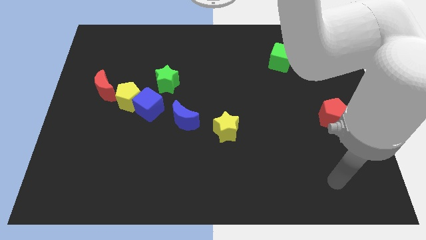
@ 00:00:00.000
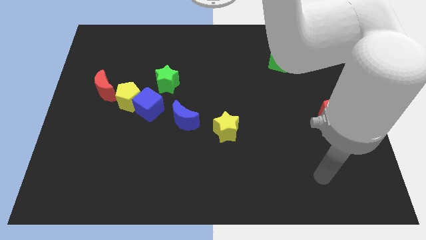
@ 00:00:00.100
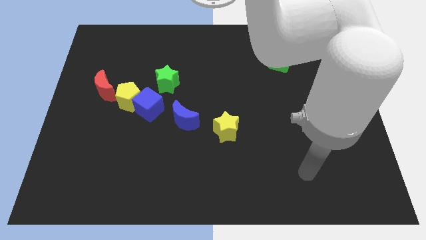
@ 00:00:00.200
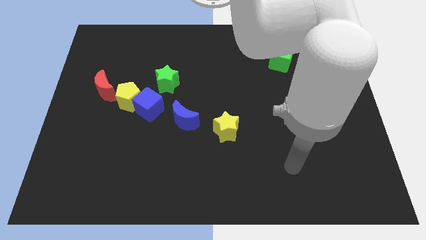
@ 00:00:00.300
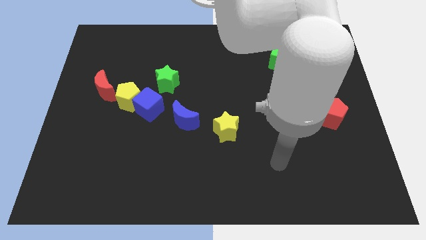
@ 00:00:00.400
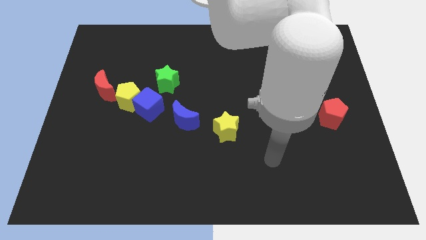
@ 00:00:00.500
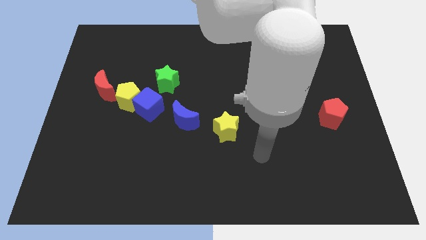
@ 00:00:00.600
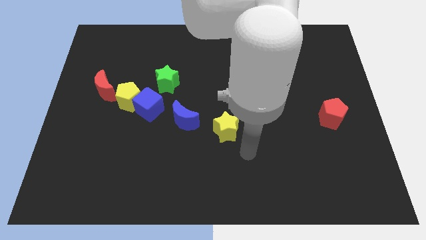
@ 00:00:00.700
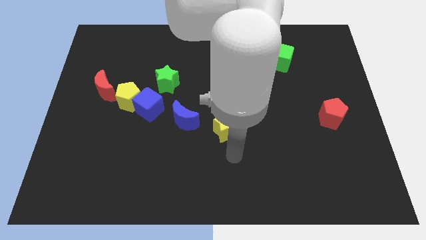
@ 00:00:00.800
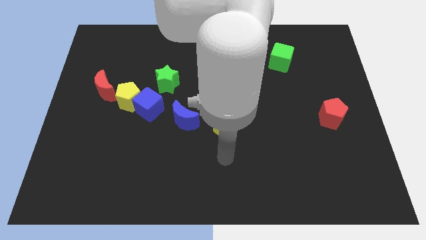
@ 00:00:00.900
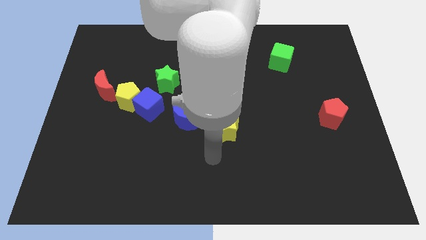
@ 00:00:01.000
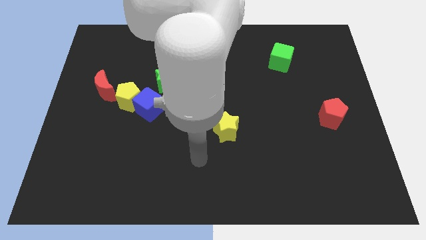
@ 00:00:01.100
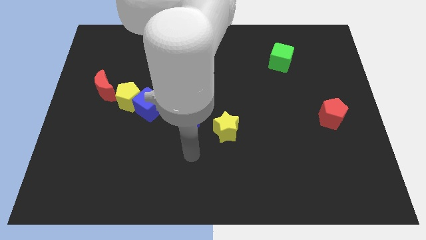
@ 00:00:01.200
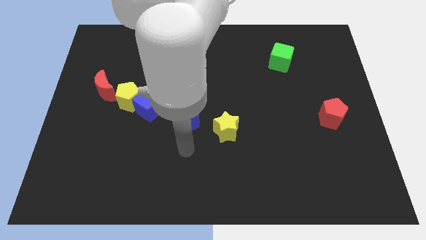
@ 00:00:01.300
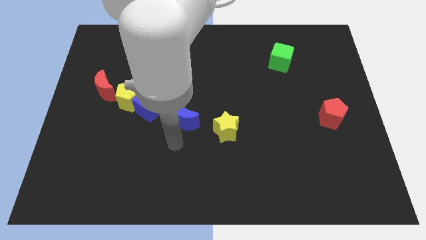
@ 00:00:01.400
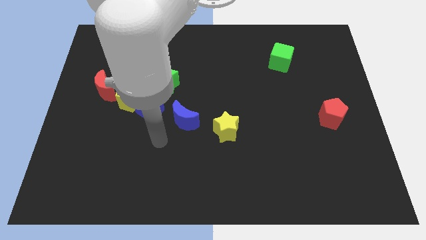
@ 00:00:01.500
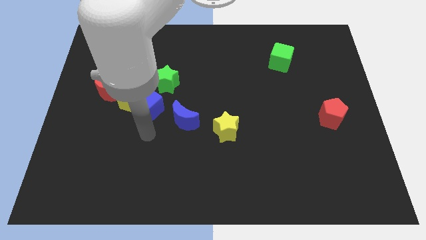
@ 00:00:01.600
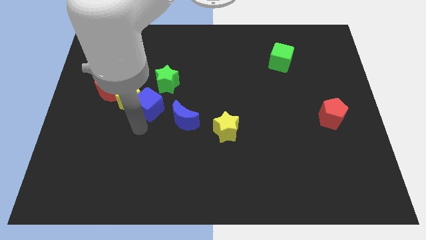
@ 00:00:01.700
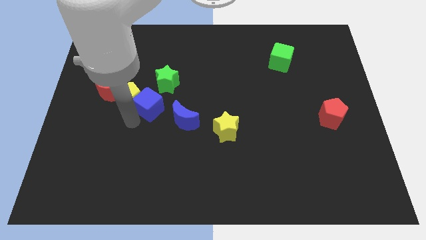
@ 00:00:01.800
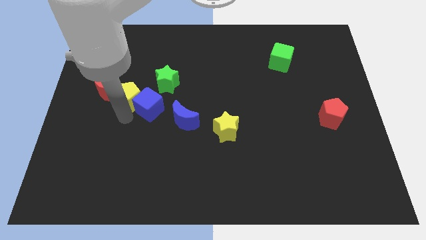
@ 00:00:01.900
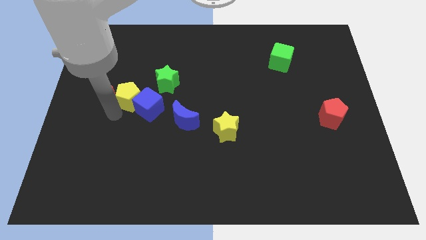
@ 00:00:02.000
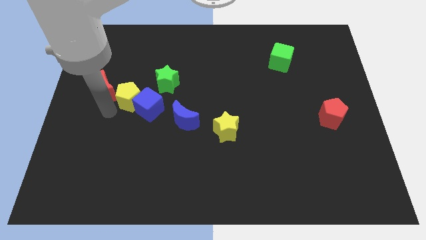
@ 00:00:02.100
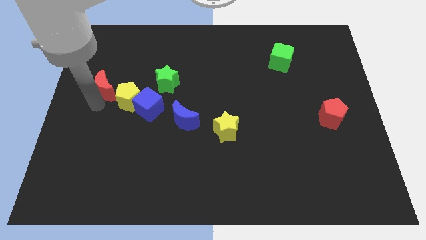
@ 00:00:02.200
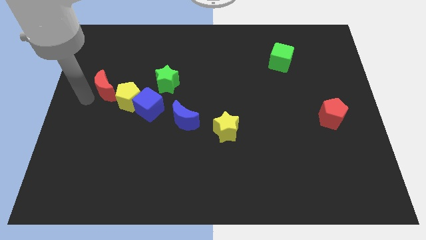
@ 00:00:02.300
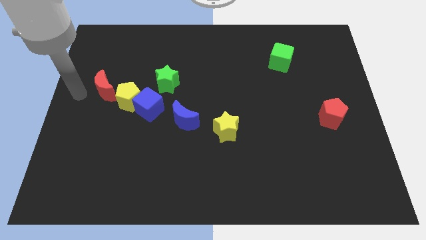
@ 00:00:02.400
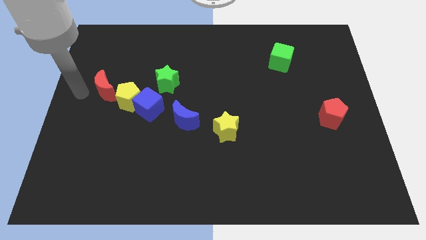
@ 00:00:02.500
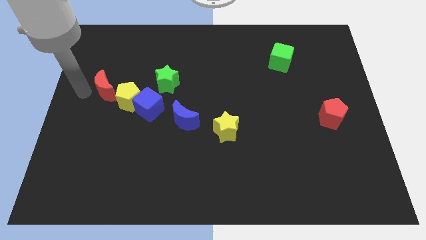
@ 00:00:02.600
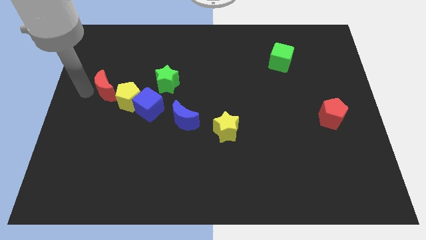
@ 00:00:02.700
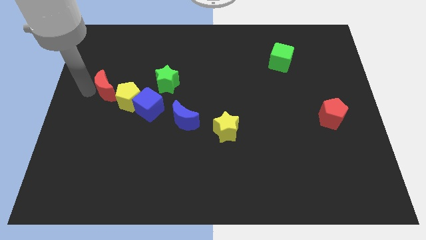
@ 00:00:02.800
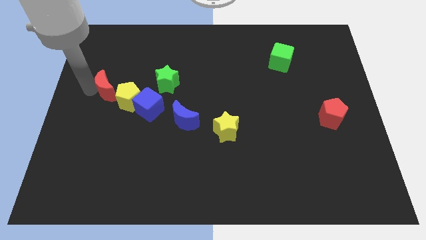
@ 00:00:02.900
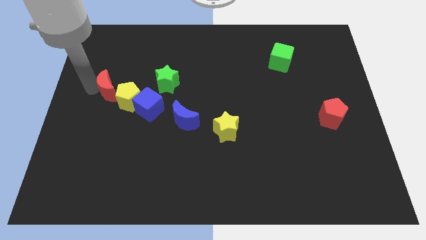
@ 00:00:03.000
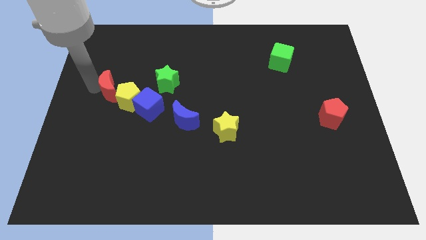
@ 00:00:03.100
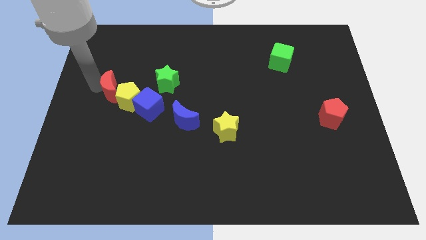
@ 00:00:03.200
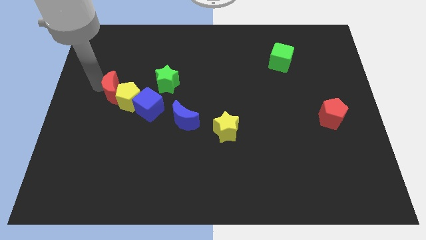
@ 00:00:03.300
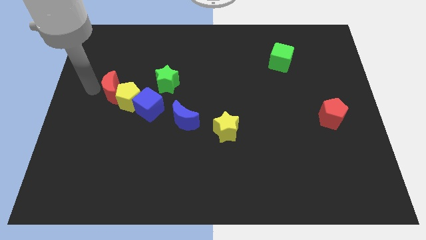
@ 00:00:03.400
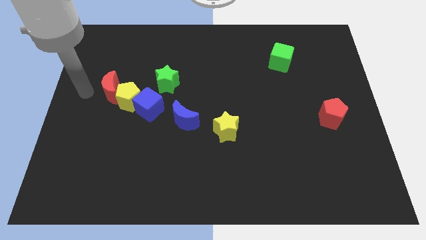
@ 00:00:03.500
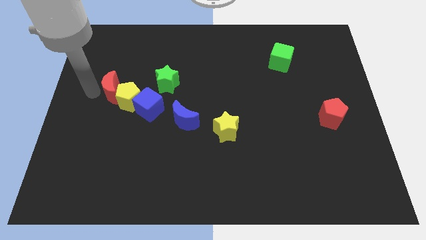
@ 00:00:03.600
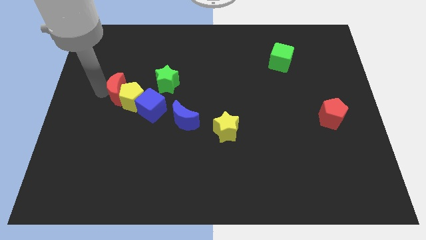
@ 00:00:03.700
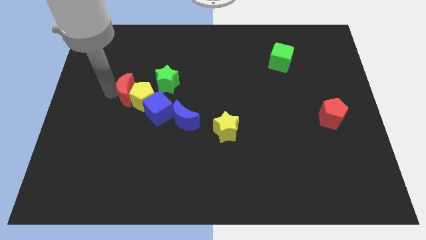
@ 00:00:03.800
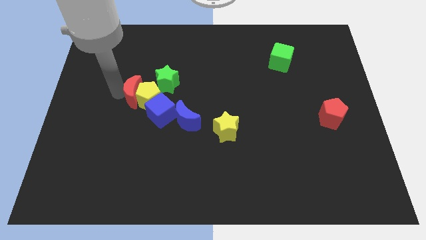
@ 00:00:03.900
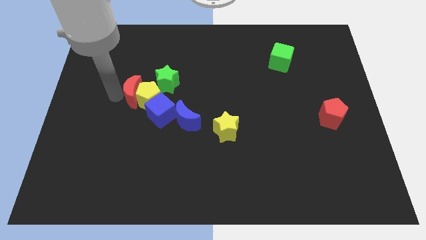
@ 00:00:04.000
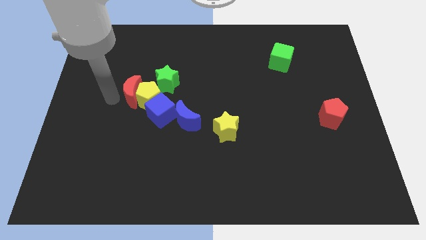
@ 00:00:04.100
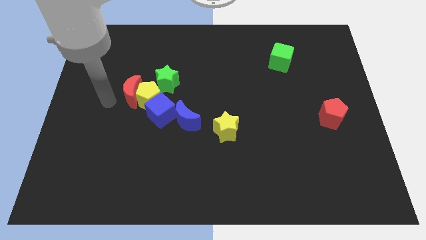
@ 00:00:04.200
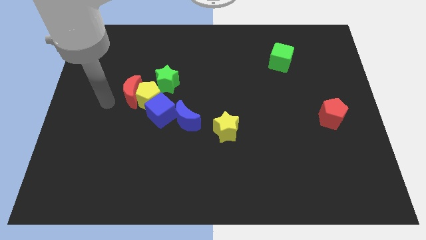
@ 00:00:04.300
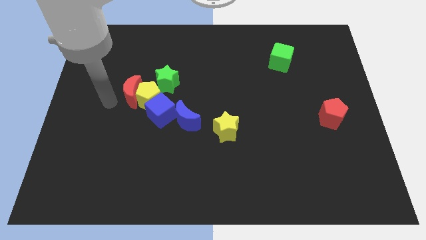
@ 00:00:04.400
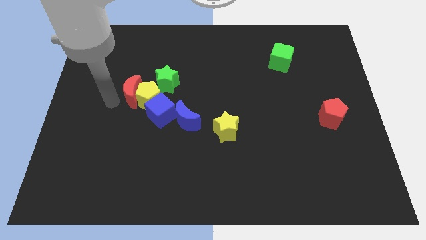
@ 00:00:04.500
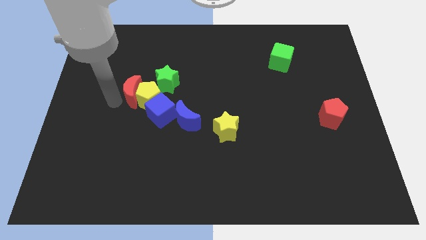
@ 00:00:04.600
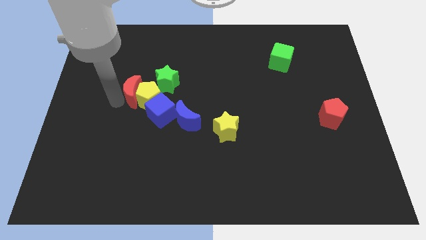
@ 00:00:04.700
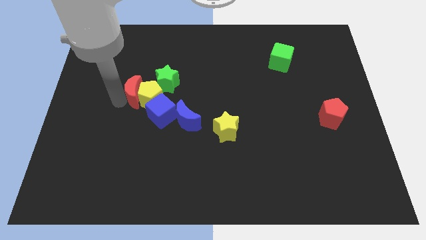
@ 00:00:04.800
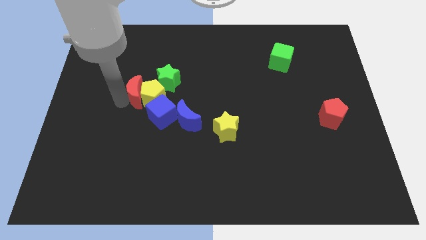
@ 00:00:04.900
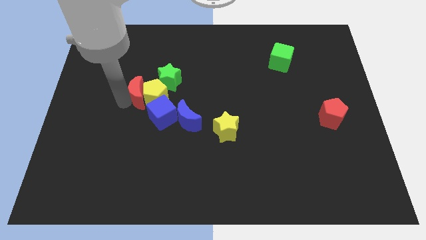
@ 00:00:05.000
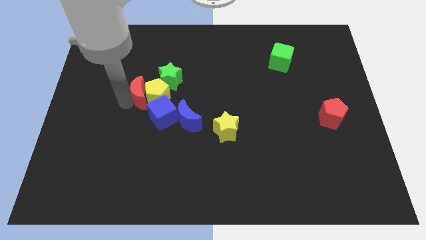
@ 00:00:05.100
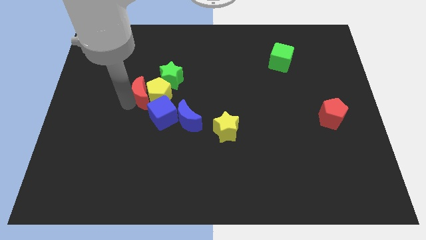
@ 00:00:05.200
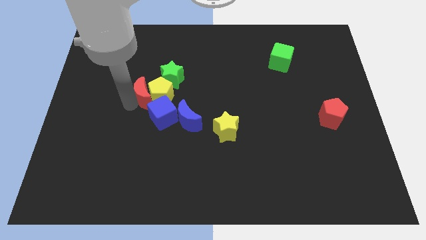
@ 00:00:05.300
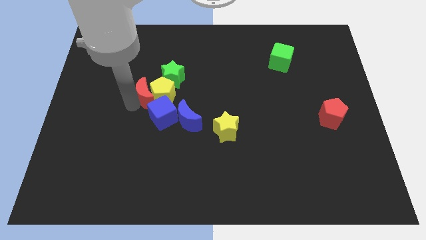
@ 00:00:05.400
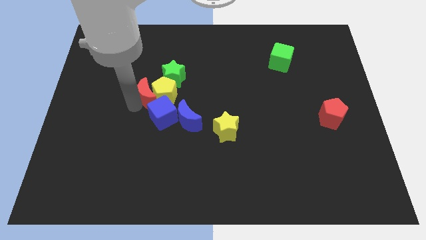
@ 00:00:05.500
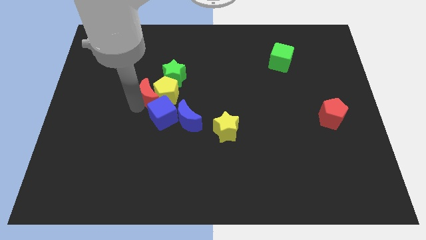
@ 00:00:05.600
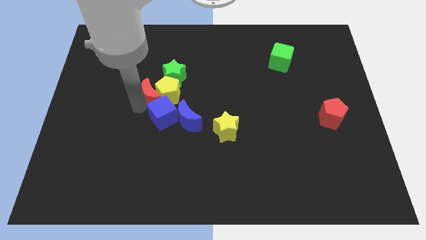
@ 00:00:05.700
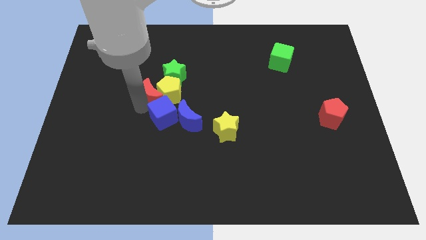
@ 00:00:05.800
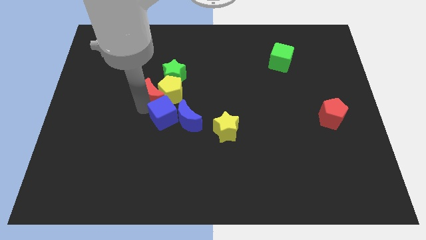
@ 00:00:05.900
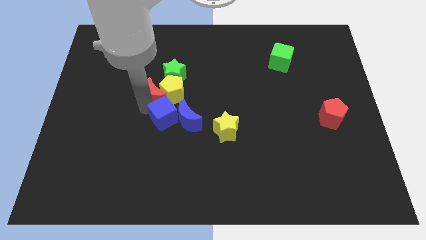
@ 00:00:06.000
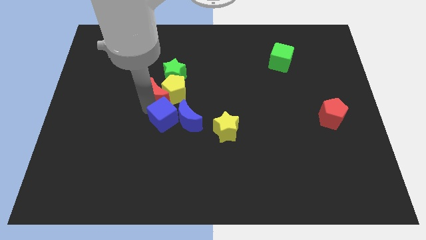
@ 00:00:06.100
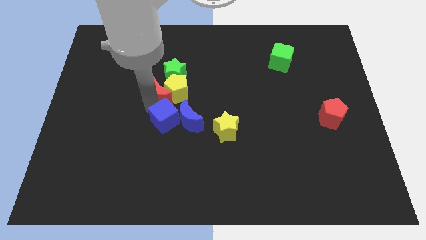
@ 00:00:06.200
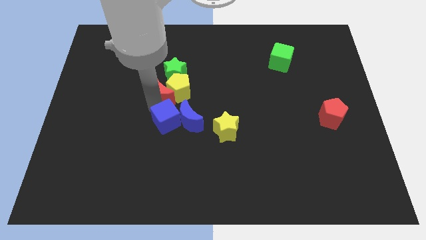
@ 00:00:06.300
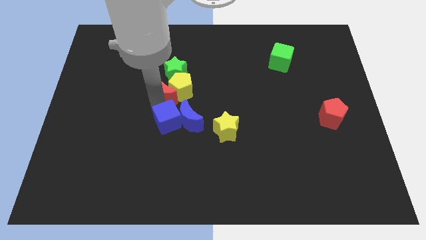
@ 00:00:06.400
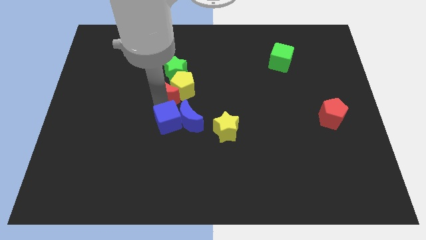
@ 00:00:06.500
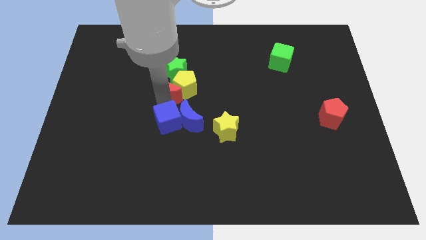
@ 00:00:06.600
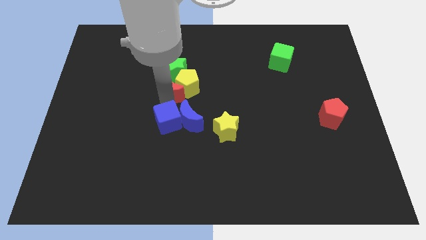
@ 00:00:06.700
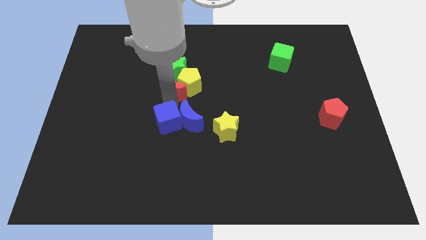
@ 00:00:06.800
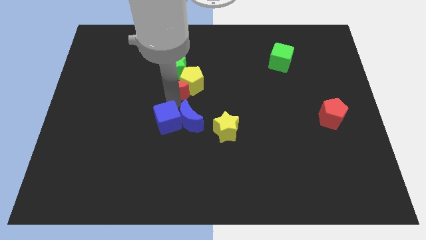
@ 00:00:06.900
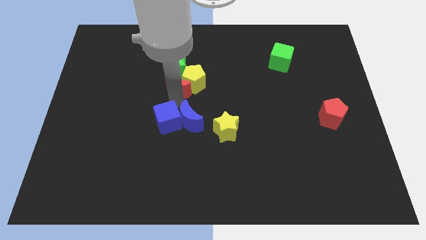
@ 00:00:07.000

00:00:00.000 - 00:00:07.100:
move the red moon towards the green star
